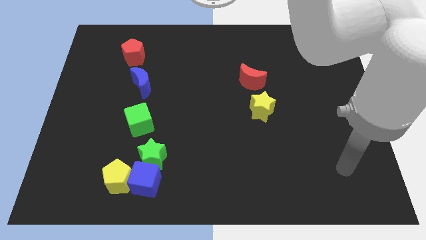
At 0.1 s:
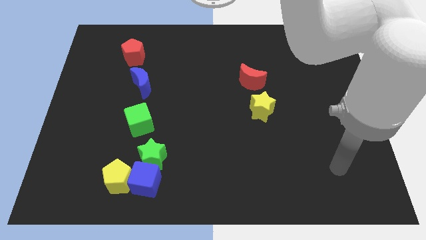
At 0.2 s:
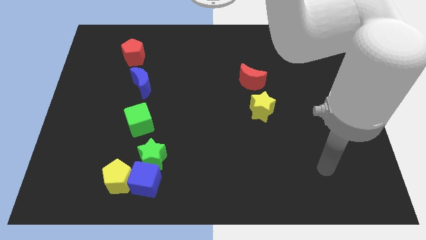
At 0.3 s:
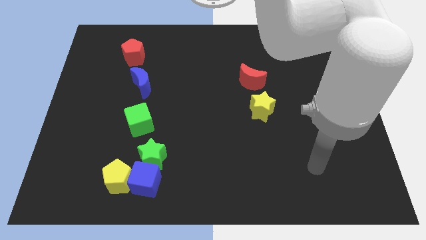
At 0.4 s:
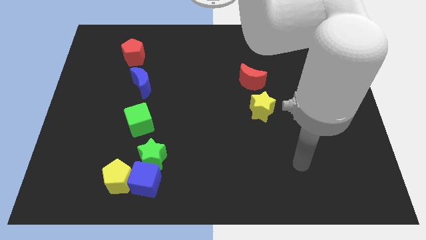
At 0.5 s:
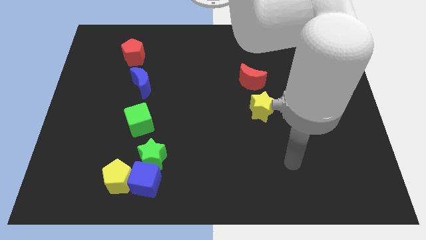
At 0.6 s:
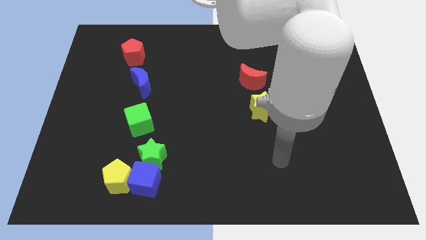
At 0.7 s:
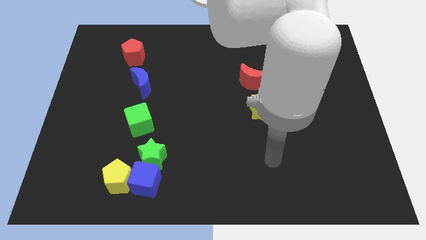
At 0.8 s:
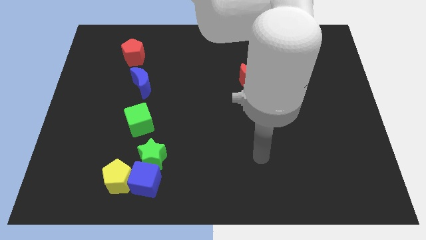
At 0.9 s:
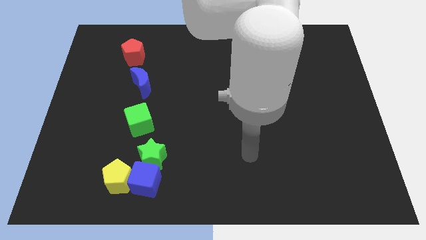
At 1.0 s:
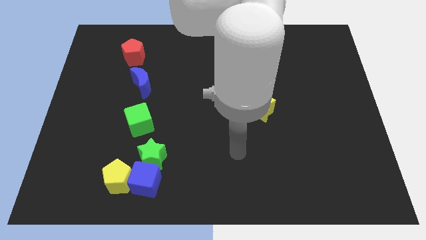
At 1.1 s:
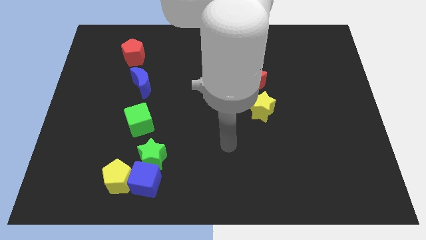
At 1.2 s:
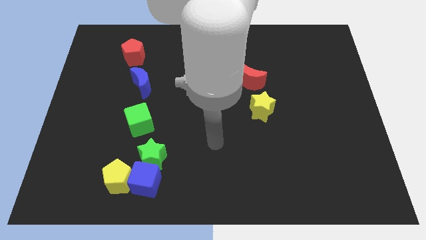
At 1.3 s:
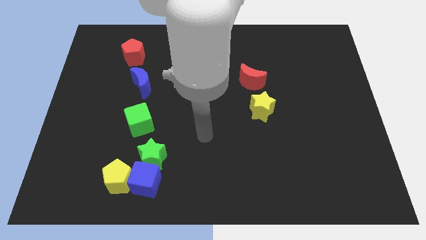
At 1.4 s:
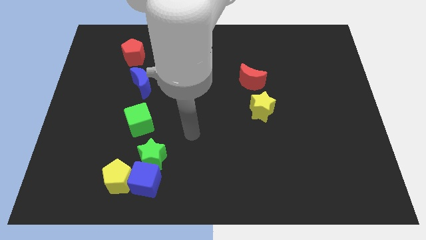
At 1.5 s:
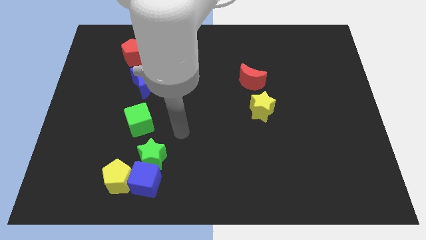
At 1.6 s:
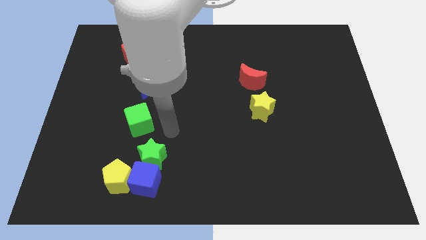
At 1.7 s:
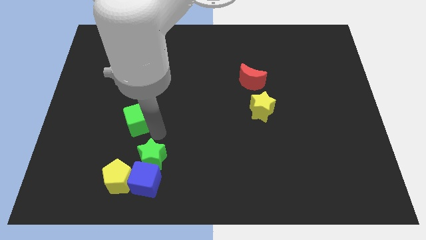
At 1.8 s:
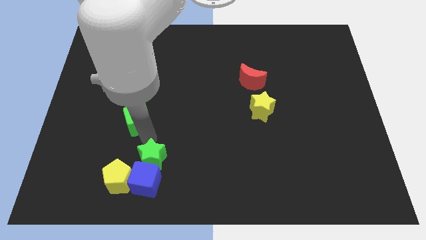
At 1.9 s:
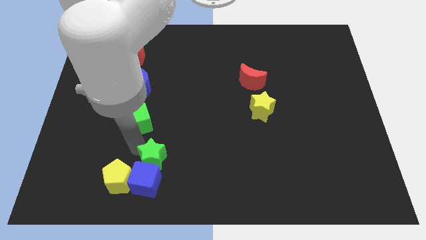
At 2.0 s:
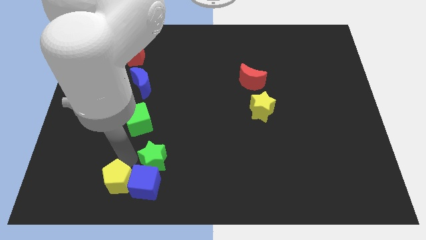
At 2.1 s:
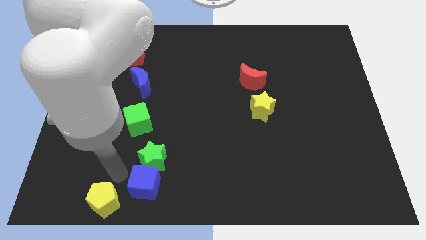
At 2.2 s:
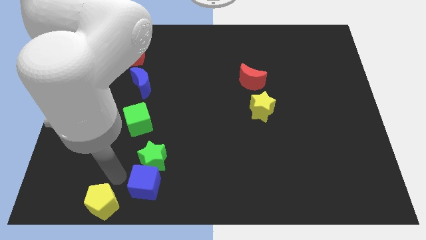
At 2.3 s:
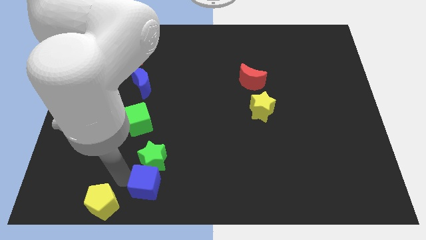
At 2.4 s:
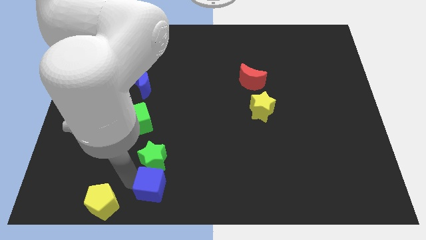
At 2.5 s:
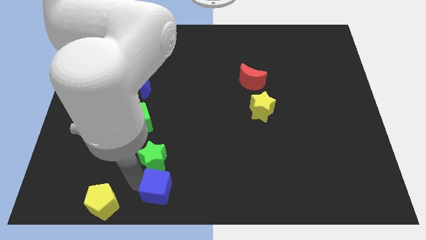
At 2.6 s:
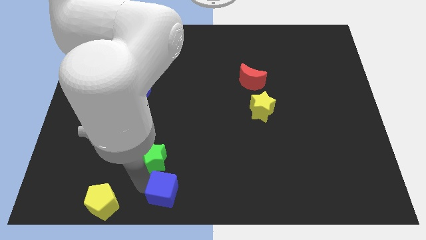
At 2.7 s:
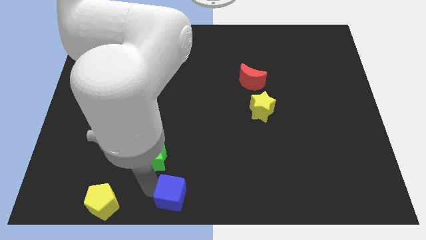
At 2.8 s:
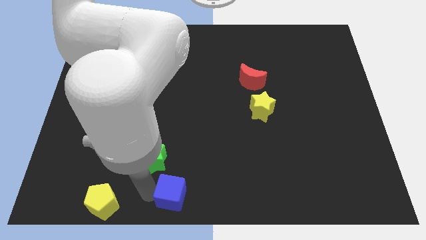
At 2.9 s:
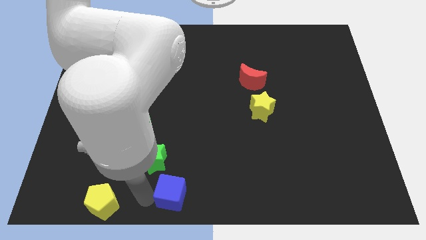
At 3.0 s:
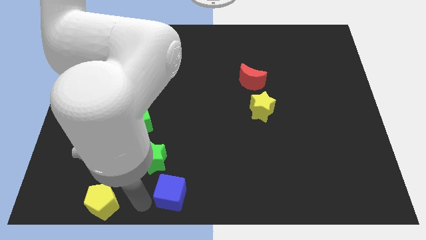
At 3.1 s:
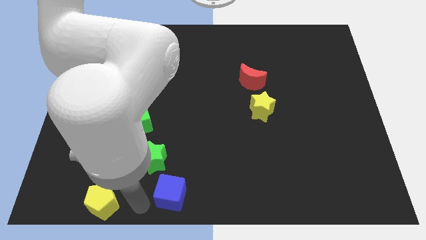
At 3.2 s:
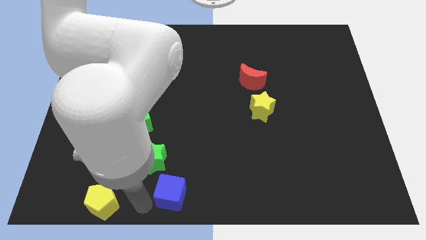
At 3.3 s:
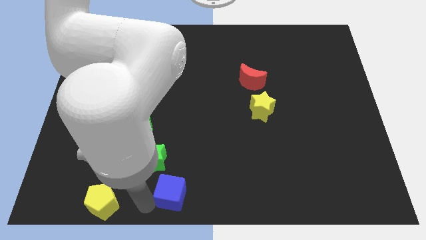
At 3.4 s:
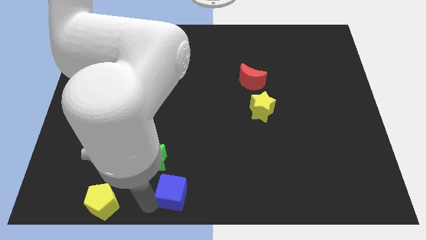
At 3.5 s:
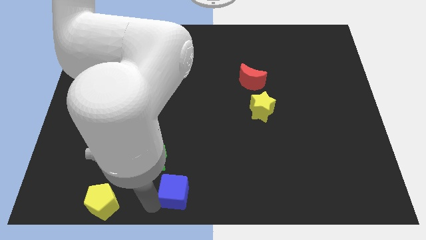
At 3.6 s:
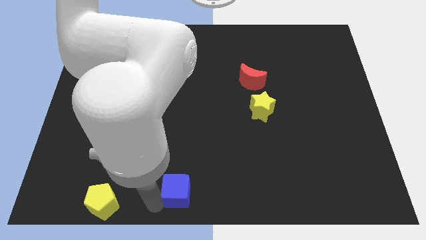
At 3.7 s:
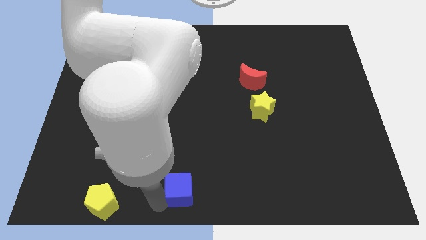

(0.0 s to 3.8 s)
move the blue cube right slightly

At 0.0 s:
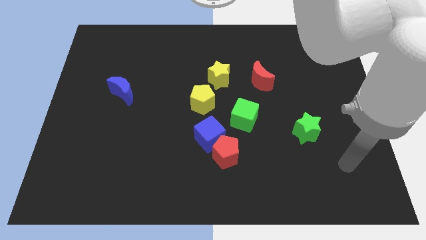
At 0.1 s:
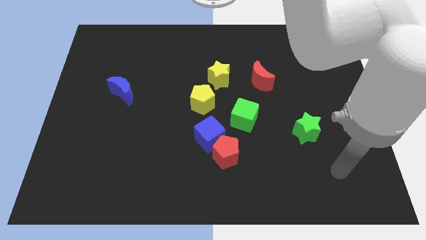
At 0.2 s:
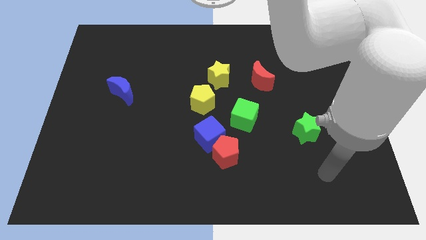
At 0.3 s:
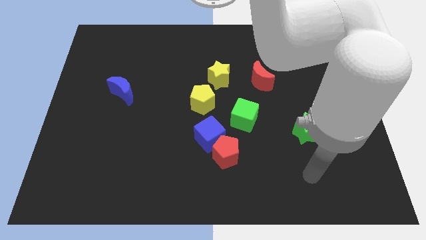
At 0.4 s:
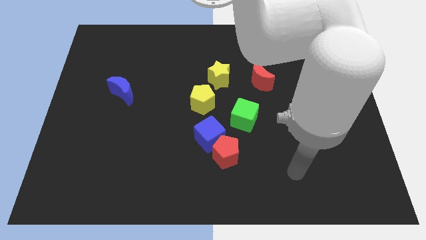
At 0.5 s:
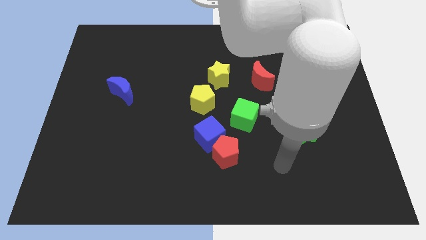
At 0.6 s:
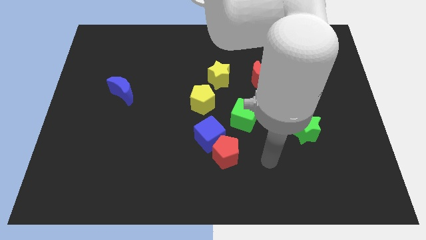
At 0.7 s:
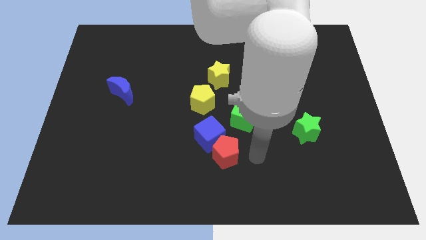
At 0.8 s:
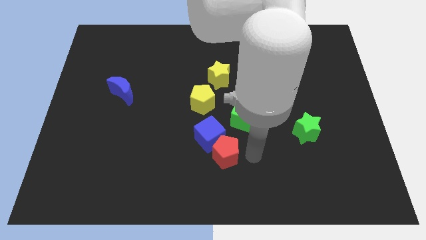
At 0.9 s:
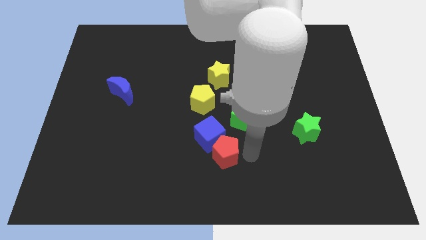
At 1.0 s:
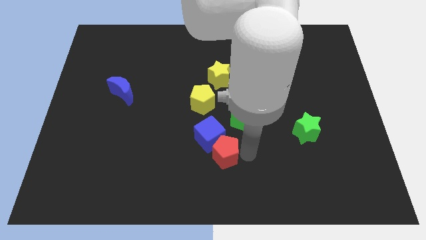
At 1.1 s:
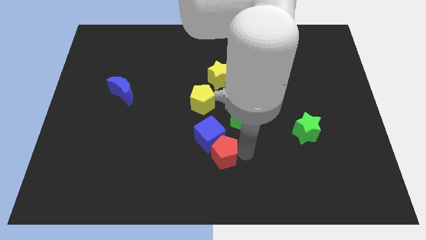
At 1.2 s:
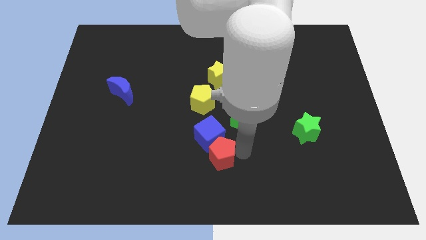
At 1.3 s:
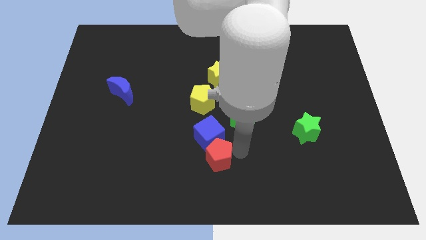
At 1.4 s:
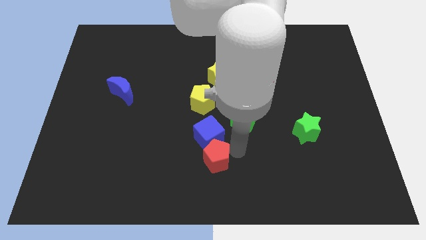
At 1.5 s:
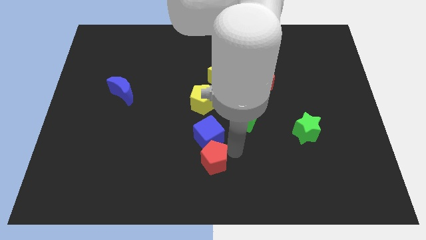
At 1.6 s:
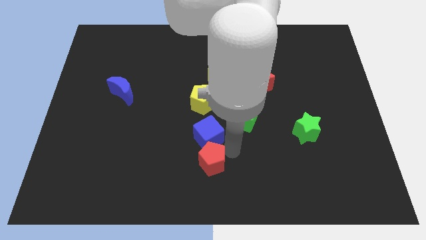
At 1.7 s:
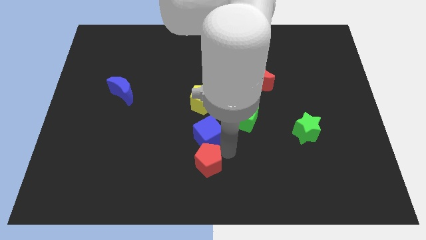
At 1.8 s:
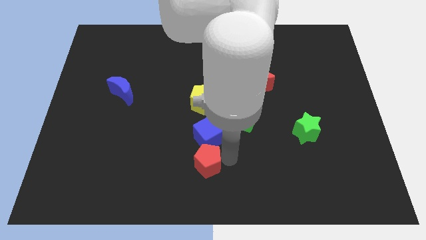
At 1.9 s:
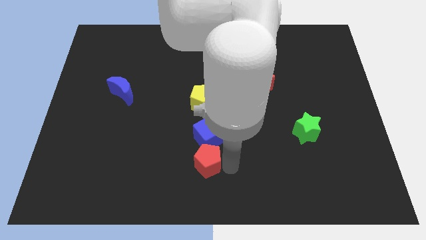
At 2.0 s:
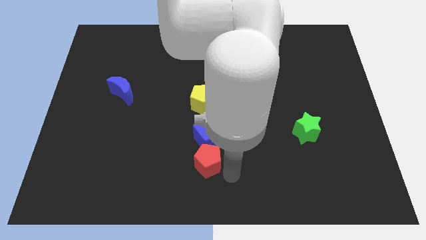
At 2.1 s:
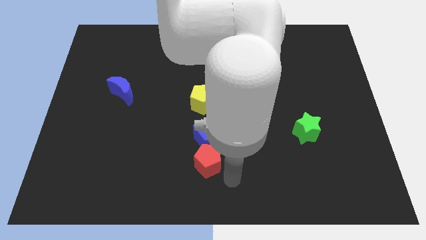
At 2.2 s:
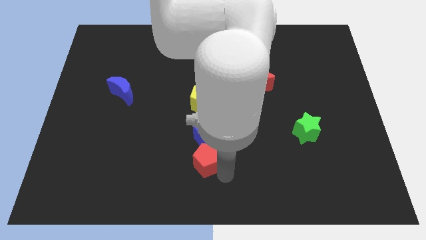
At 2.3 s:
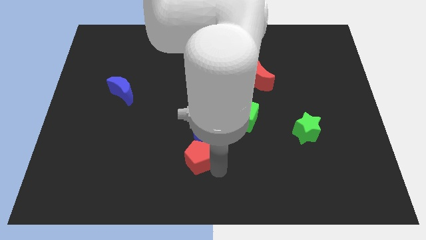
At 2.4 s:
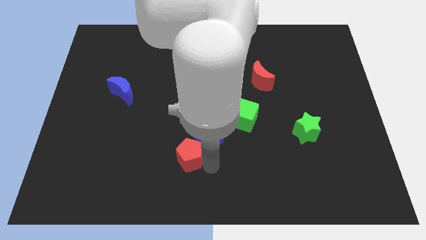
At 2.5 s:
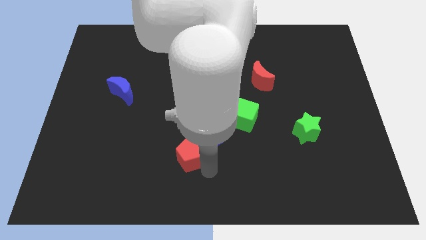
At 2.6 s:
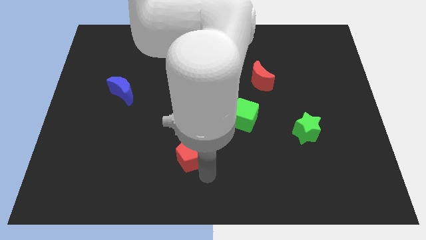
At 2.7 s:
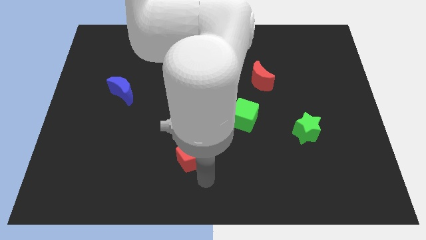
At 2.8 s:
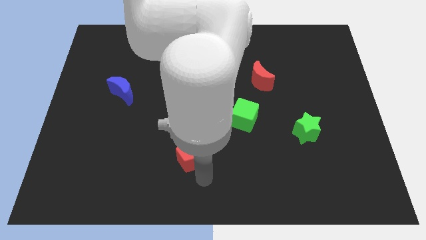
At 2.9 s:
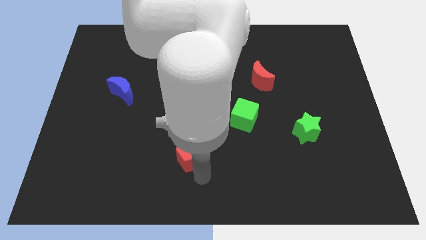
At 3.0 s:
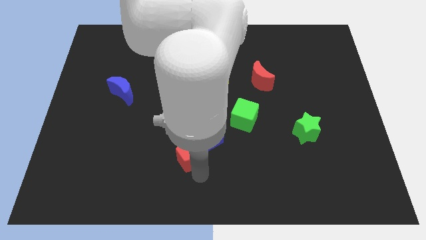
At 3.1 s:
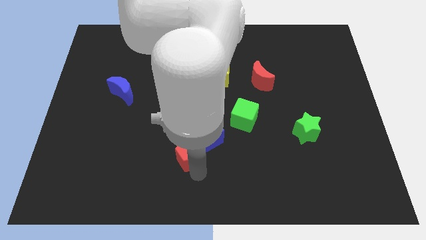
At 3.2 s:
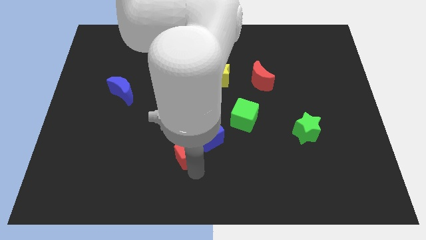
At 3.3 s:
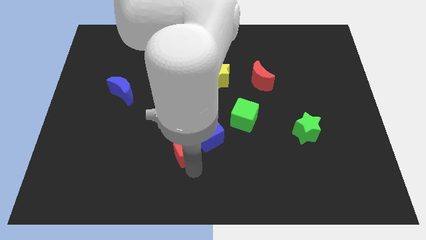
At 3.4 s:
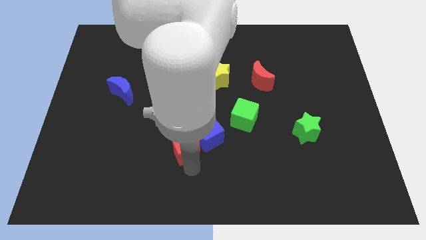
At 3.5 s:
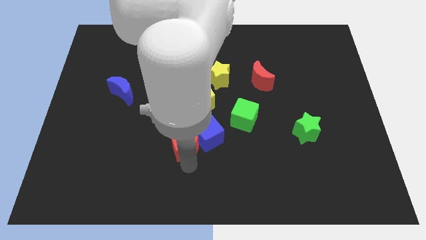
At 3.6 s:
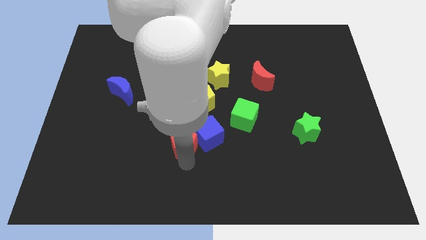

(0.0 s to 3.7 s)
move the red pentagon up and then to the left a bit

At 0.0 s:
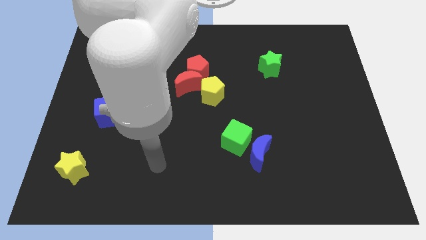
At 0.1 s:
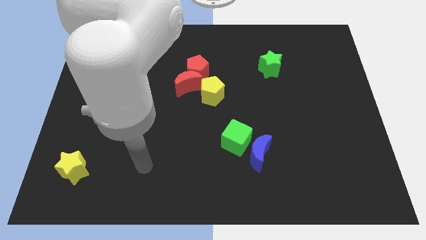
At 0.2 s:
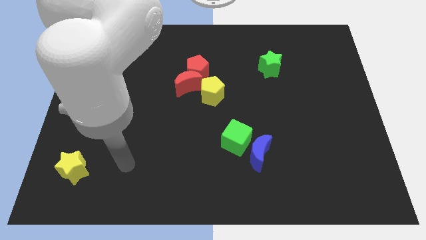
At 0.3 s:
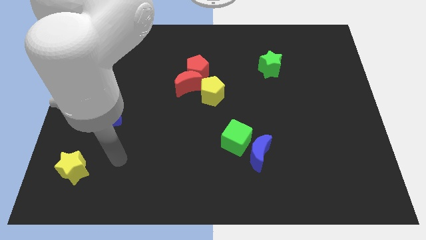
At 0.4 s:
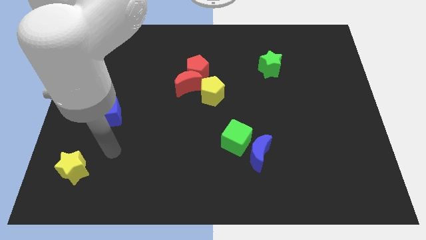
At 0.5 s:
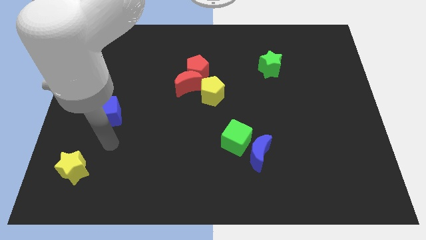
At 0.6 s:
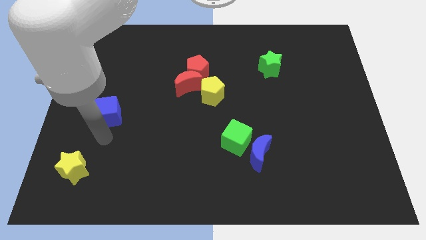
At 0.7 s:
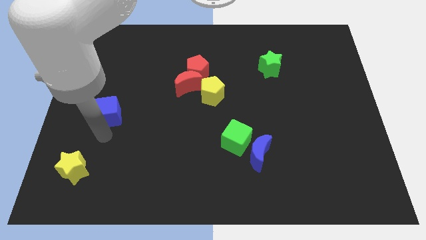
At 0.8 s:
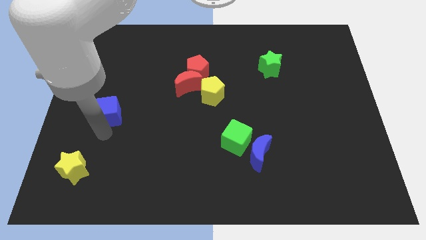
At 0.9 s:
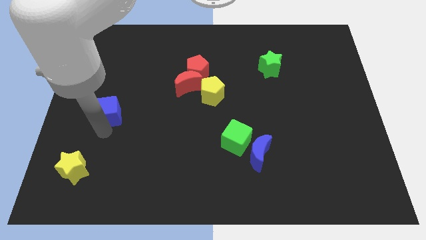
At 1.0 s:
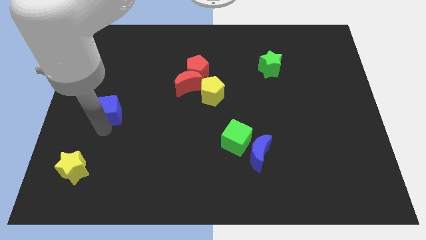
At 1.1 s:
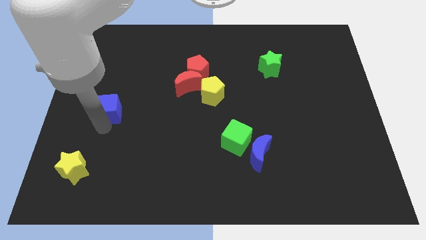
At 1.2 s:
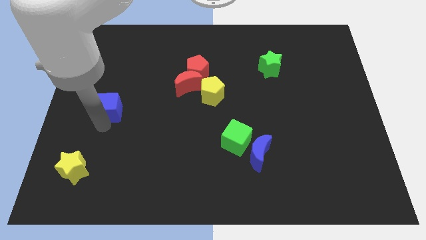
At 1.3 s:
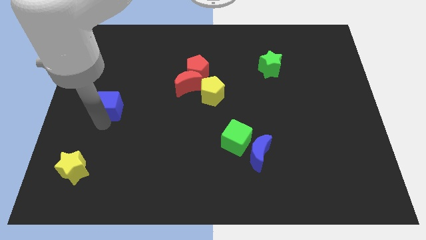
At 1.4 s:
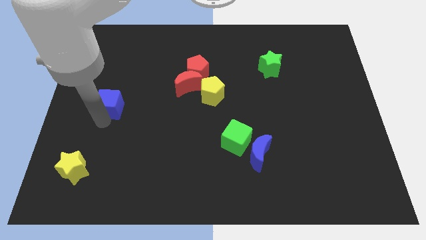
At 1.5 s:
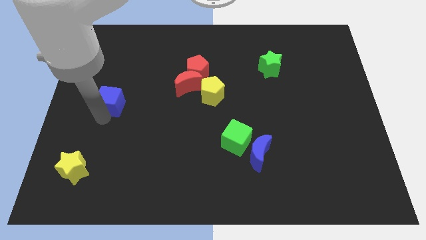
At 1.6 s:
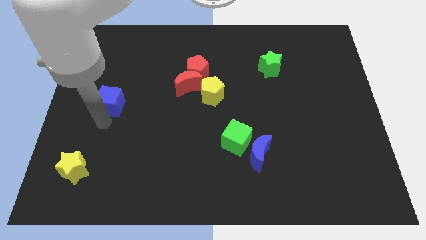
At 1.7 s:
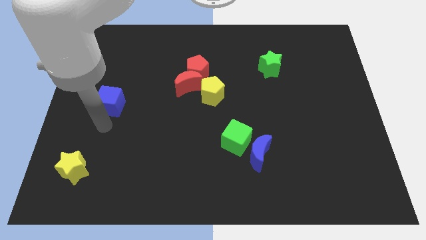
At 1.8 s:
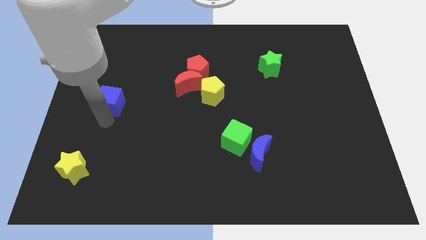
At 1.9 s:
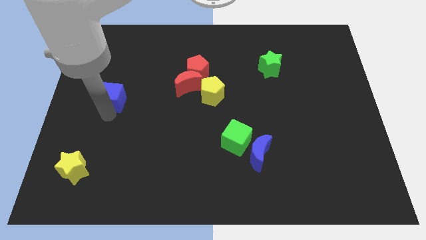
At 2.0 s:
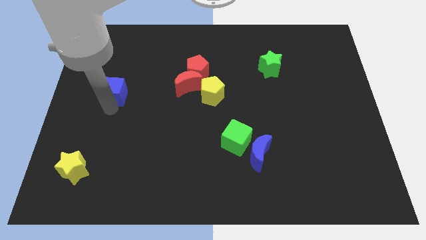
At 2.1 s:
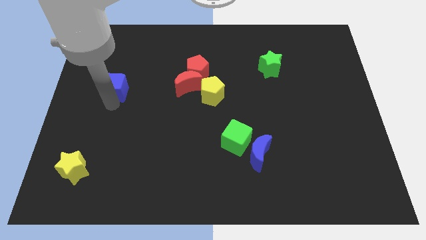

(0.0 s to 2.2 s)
slightly slide the blue cube up
